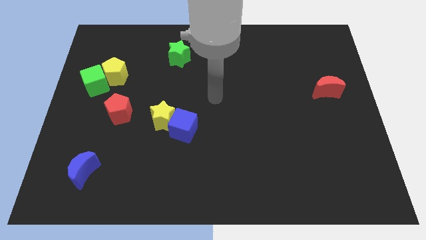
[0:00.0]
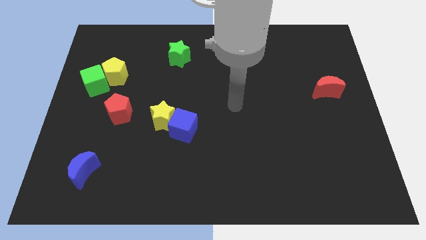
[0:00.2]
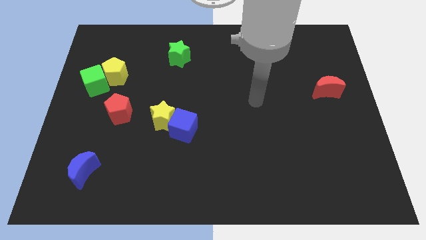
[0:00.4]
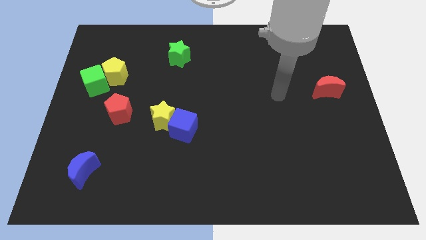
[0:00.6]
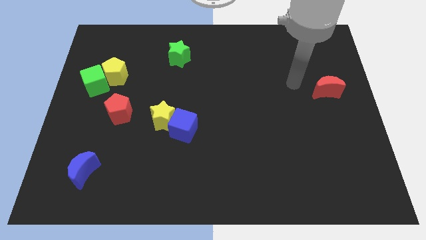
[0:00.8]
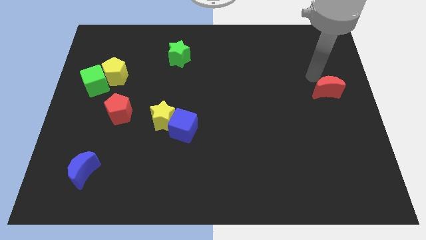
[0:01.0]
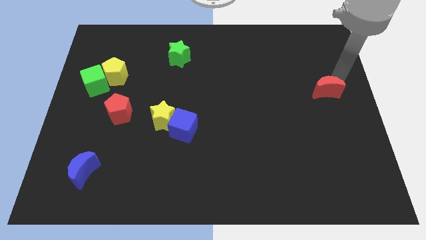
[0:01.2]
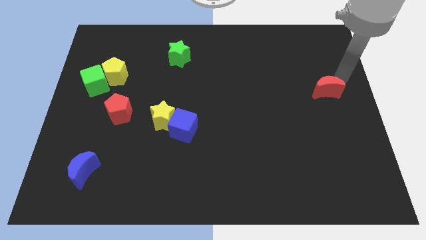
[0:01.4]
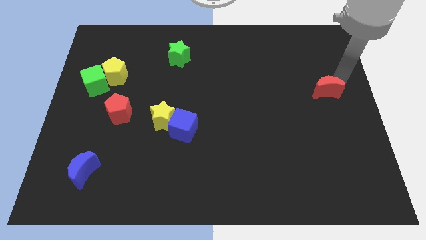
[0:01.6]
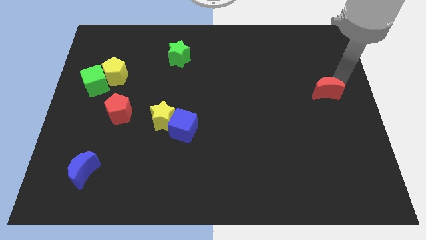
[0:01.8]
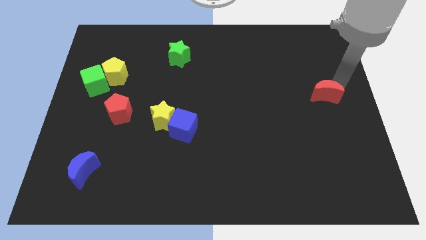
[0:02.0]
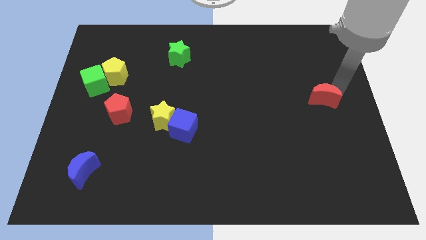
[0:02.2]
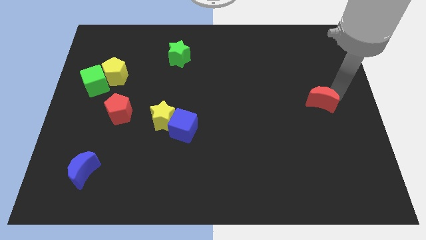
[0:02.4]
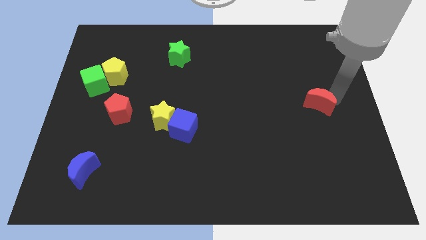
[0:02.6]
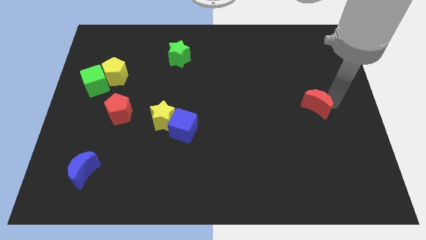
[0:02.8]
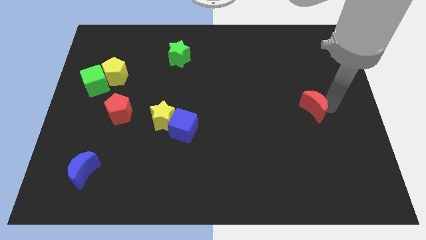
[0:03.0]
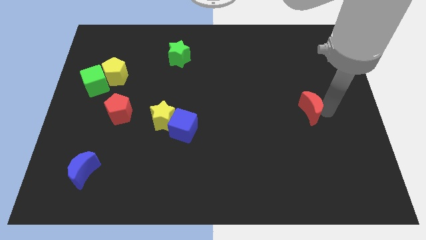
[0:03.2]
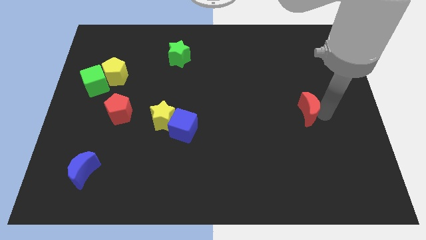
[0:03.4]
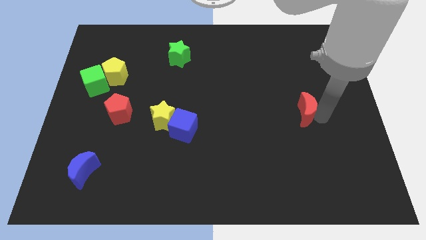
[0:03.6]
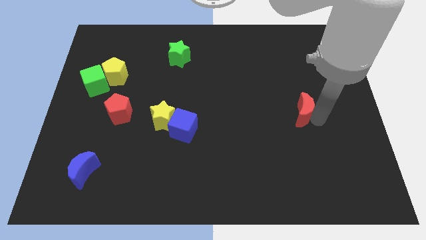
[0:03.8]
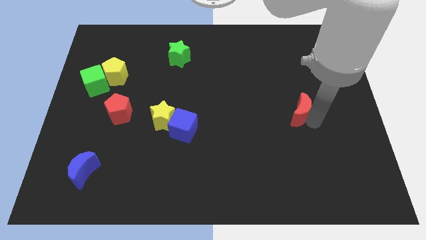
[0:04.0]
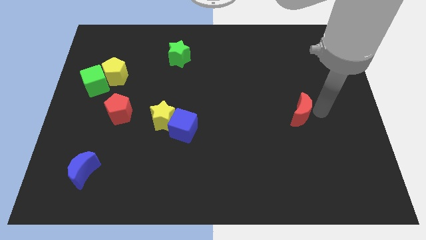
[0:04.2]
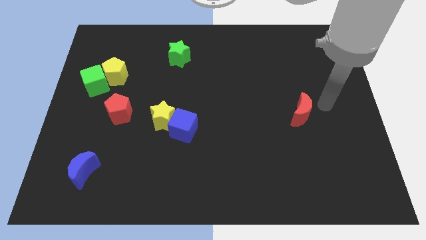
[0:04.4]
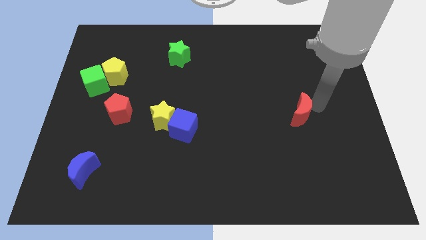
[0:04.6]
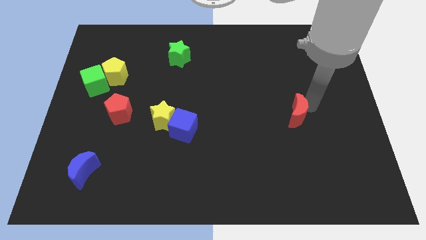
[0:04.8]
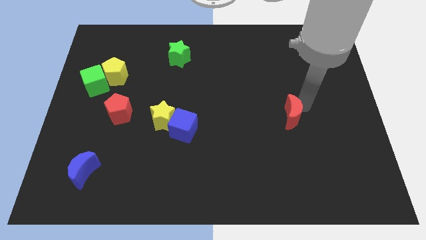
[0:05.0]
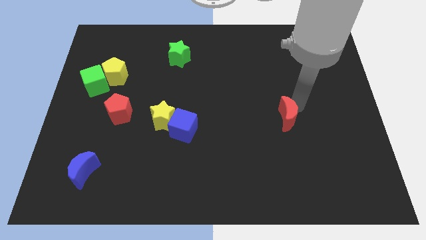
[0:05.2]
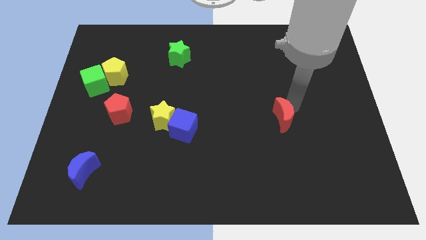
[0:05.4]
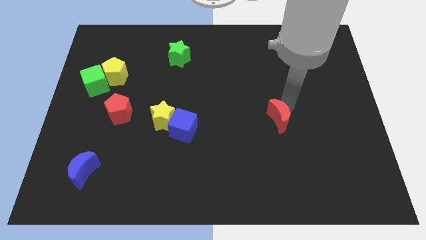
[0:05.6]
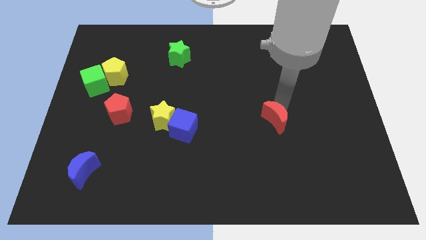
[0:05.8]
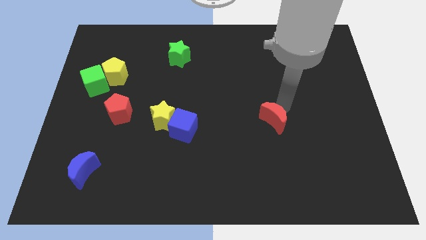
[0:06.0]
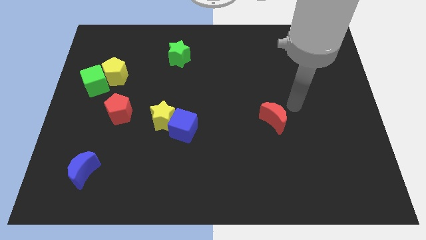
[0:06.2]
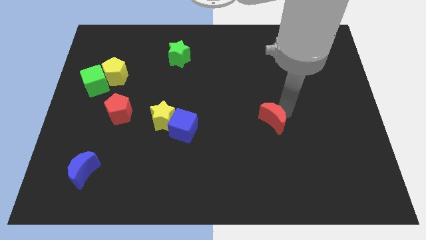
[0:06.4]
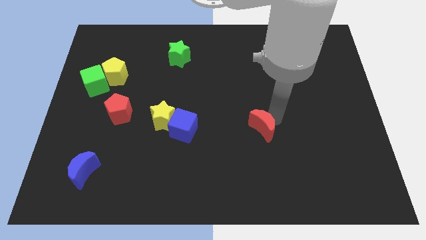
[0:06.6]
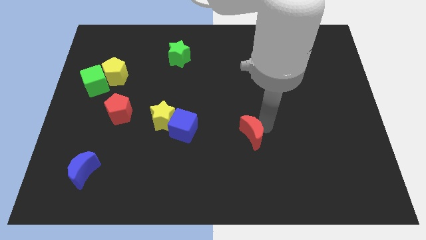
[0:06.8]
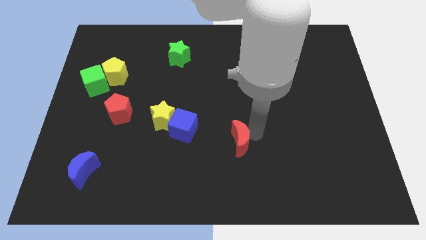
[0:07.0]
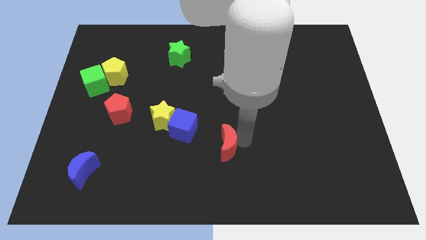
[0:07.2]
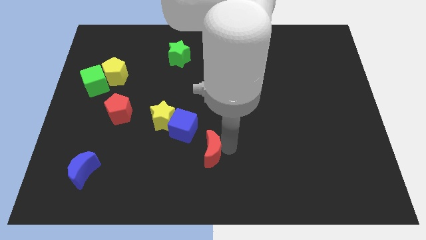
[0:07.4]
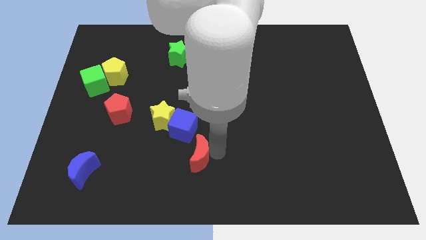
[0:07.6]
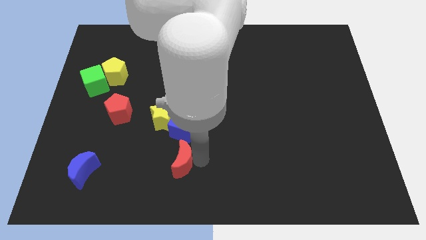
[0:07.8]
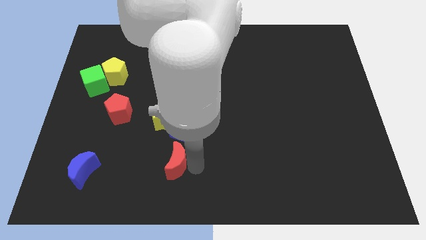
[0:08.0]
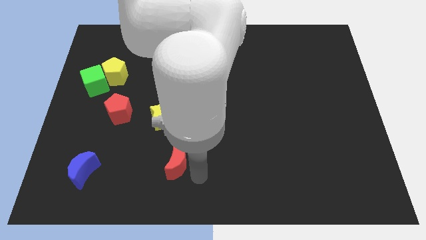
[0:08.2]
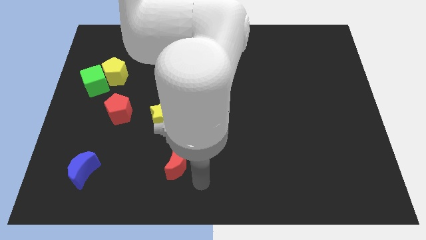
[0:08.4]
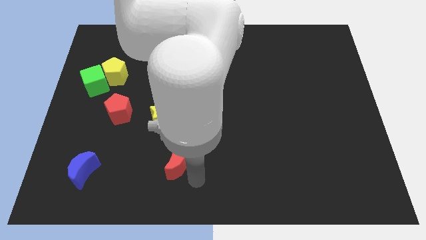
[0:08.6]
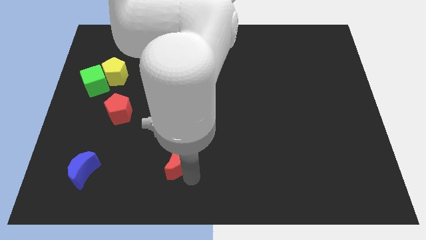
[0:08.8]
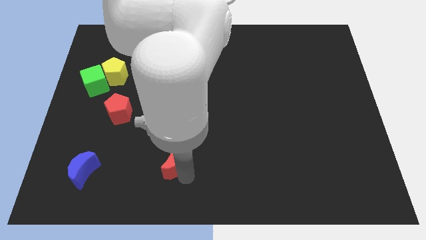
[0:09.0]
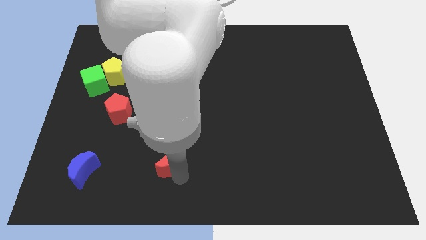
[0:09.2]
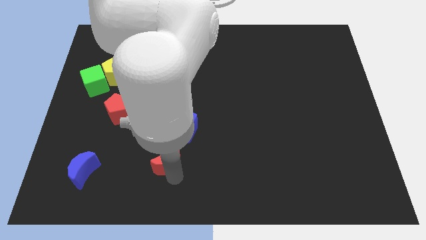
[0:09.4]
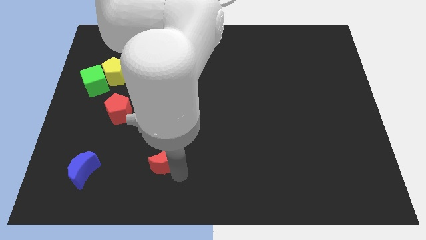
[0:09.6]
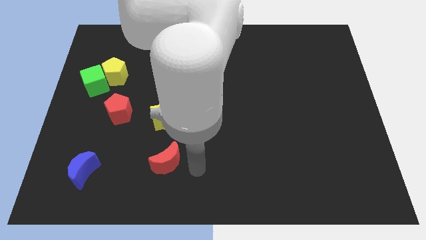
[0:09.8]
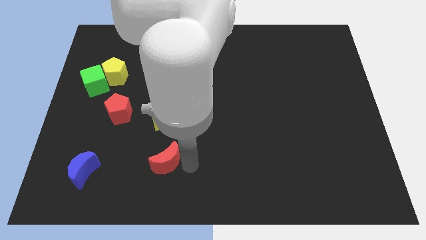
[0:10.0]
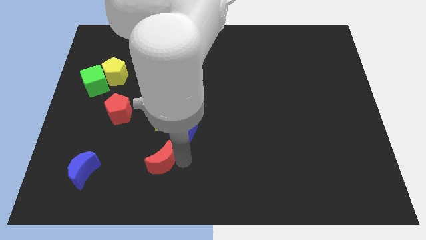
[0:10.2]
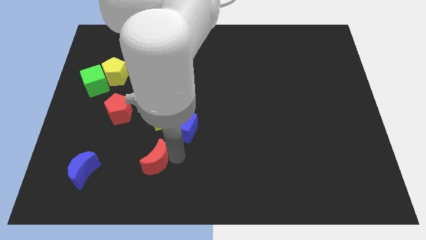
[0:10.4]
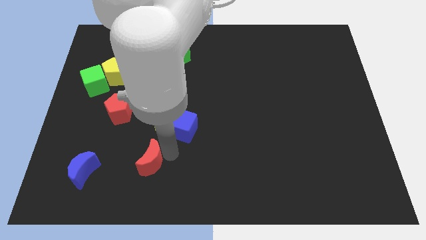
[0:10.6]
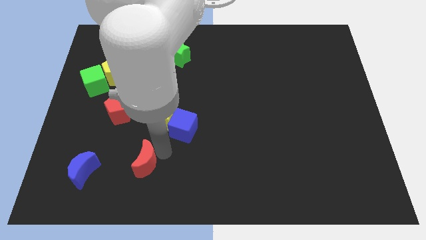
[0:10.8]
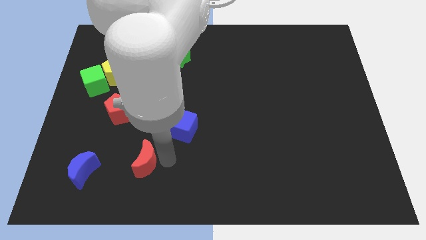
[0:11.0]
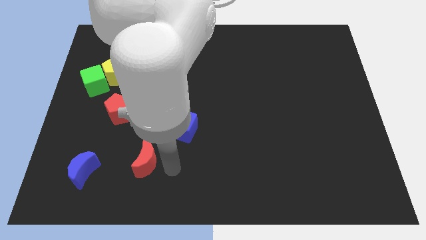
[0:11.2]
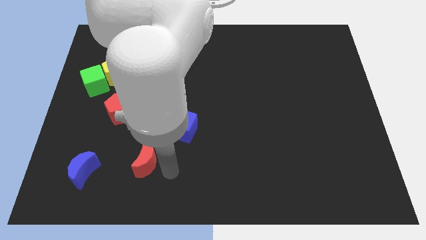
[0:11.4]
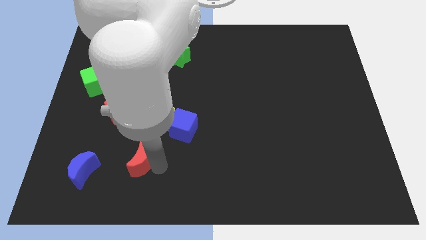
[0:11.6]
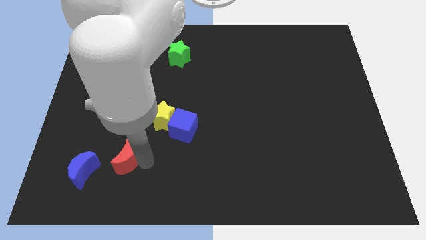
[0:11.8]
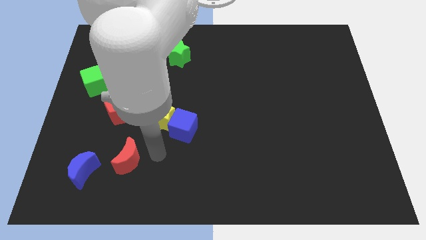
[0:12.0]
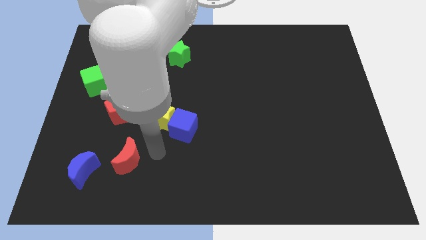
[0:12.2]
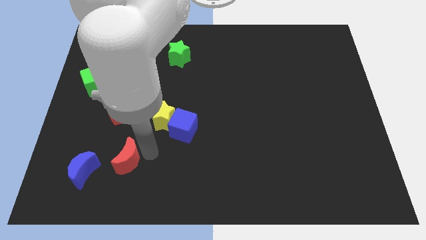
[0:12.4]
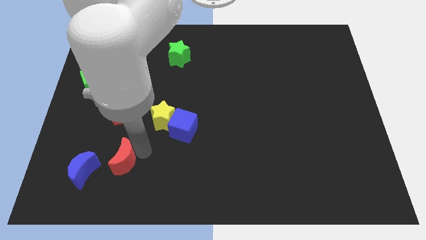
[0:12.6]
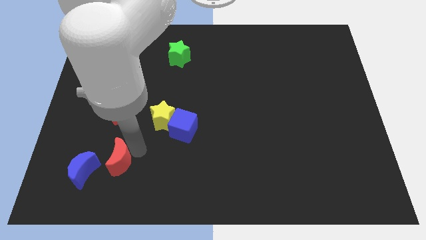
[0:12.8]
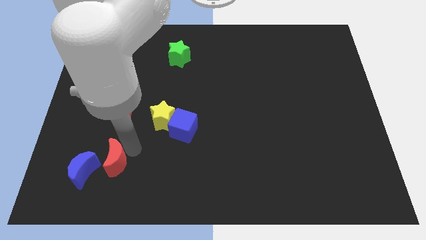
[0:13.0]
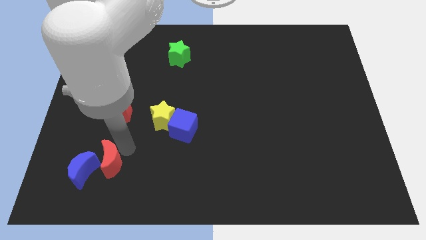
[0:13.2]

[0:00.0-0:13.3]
slide the red moon to the blue moon

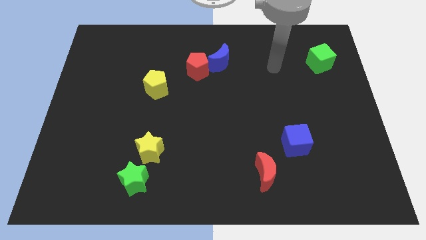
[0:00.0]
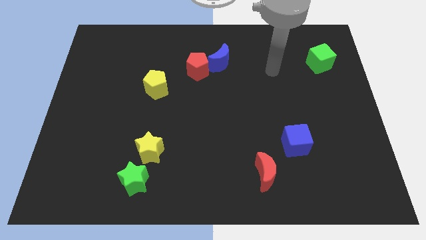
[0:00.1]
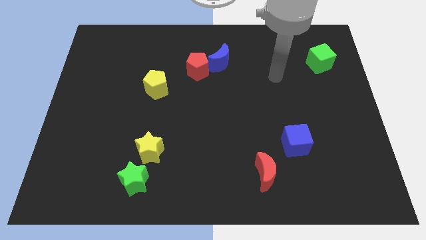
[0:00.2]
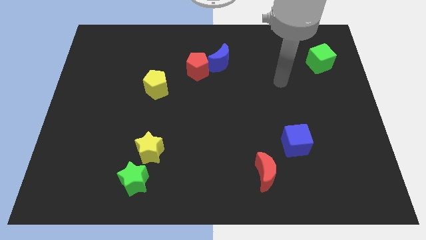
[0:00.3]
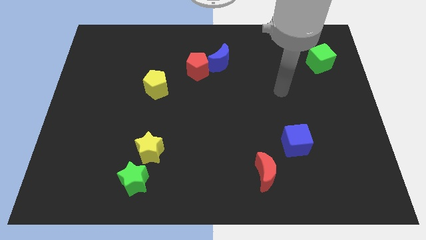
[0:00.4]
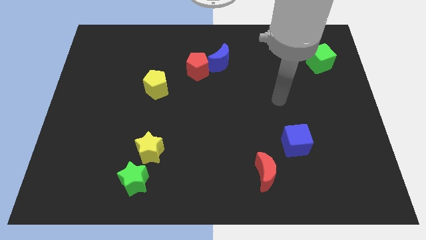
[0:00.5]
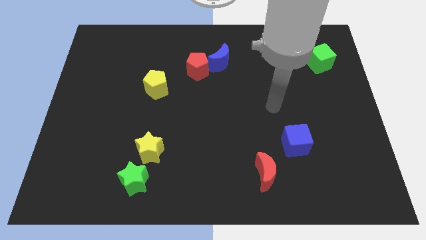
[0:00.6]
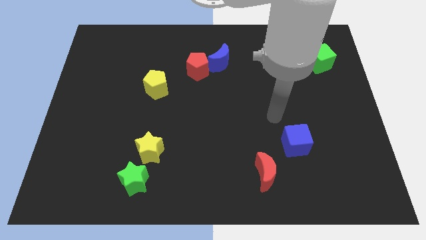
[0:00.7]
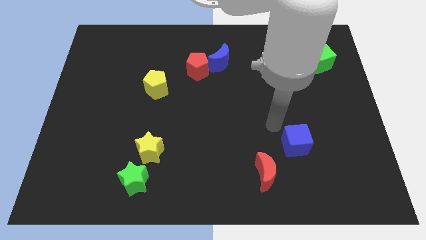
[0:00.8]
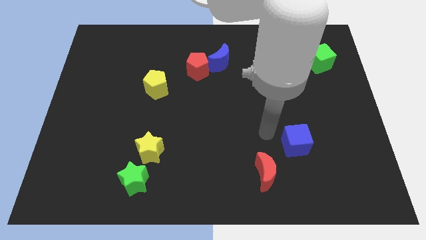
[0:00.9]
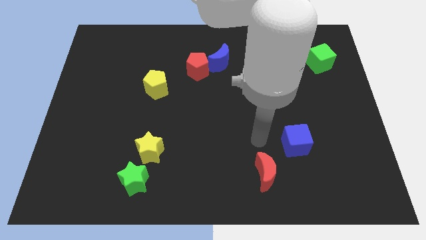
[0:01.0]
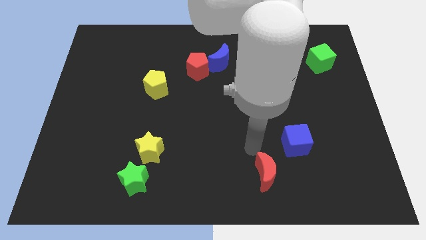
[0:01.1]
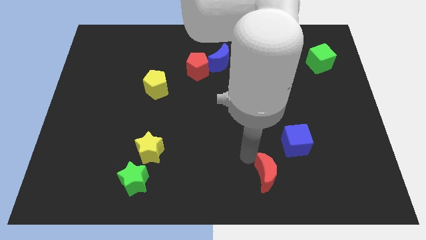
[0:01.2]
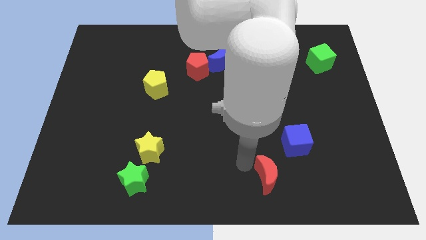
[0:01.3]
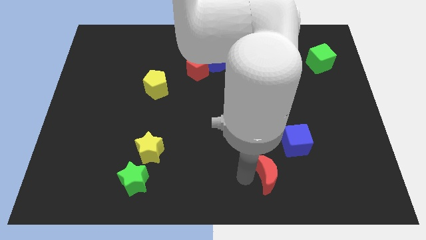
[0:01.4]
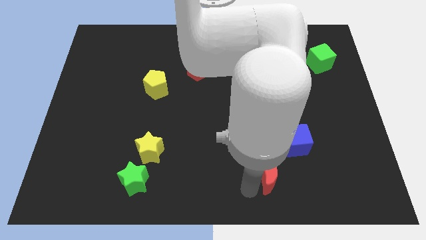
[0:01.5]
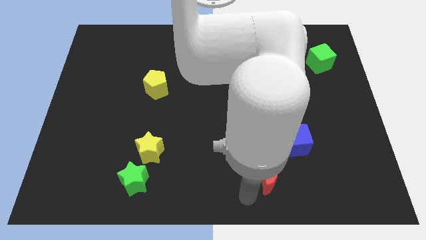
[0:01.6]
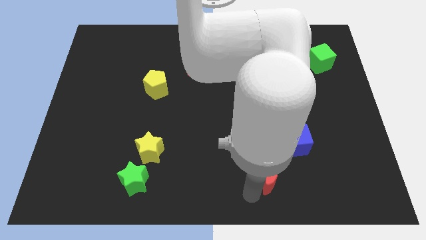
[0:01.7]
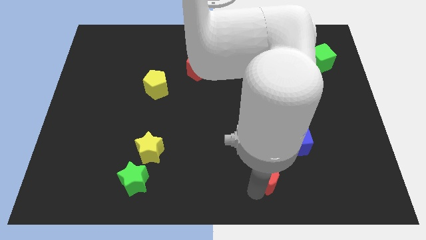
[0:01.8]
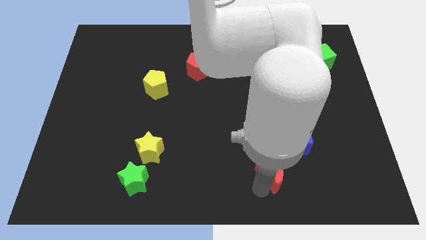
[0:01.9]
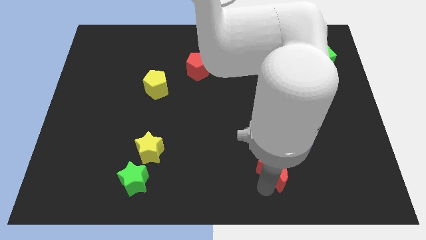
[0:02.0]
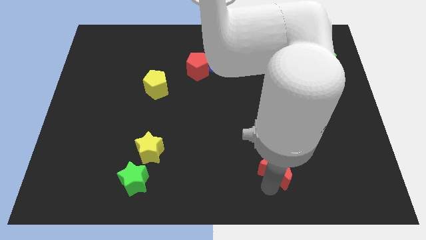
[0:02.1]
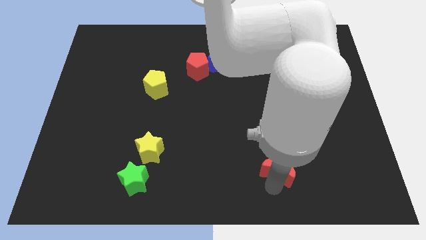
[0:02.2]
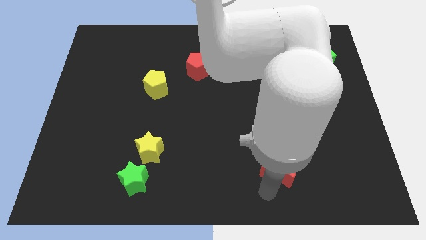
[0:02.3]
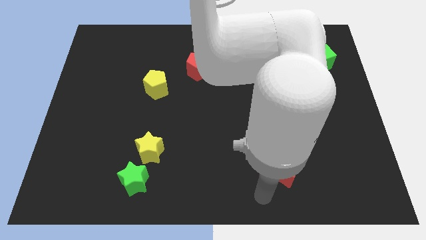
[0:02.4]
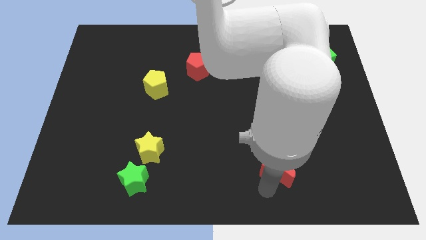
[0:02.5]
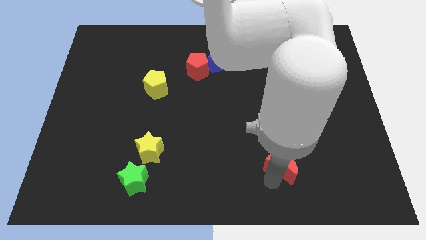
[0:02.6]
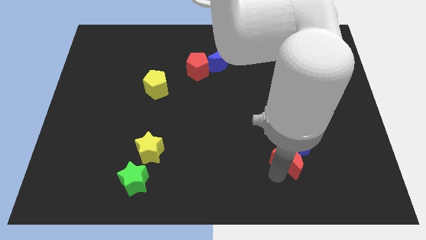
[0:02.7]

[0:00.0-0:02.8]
put the red moon next to the blue cube
